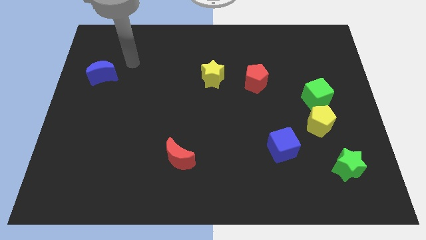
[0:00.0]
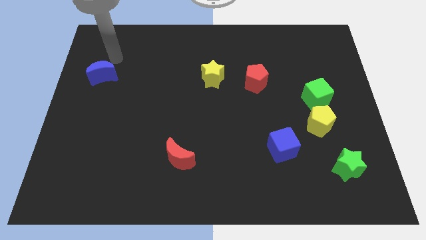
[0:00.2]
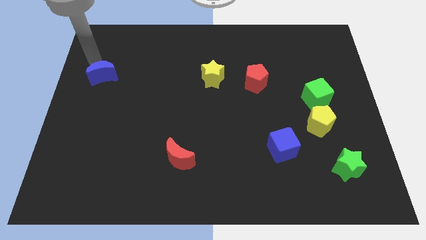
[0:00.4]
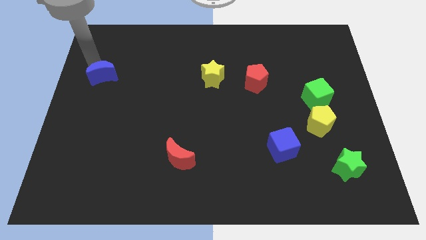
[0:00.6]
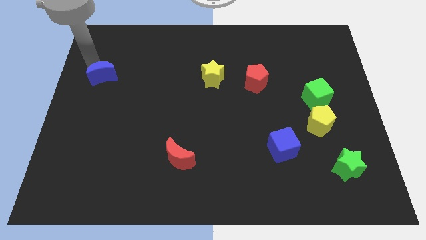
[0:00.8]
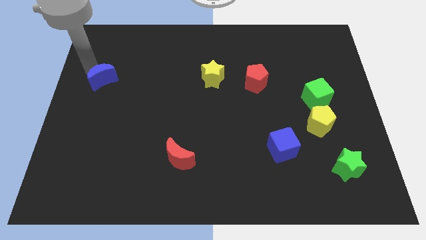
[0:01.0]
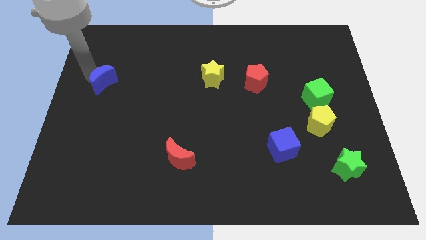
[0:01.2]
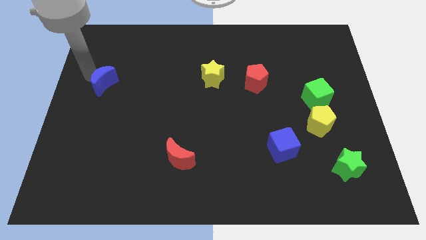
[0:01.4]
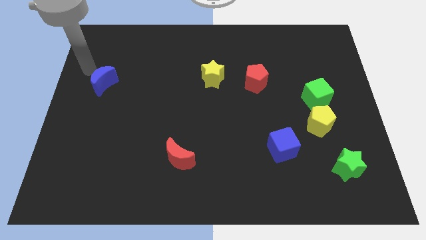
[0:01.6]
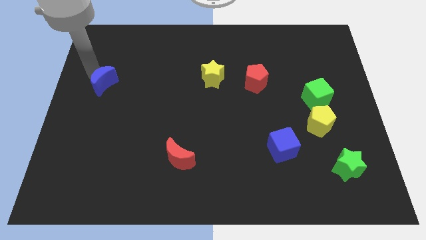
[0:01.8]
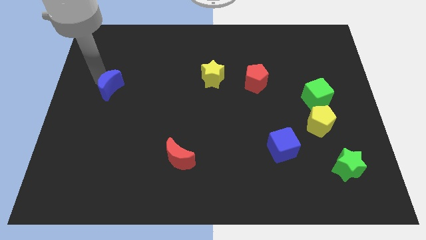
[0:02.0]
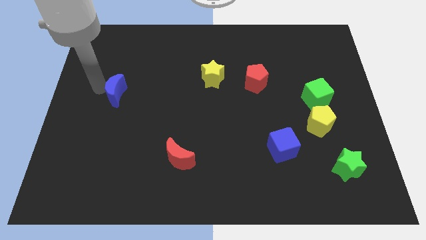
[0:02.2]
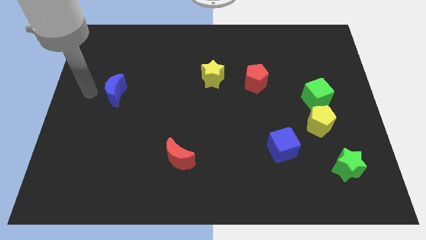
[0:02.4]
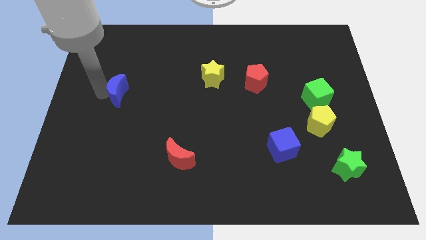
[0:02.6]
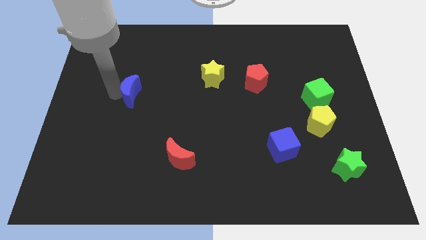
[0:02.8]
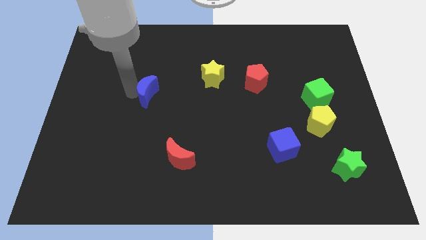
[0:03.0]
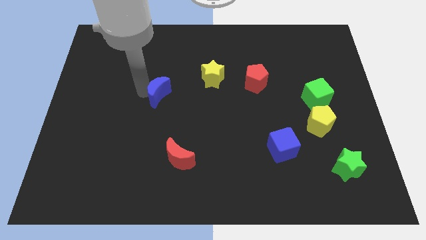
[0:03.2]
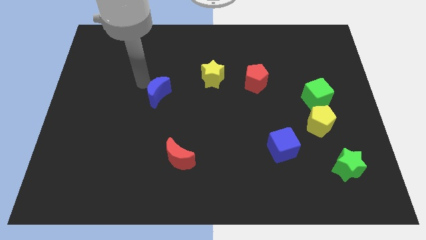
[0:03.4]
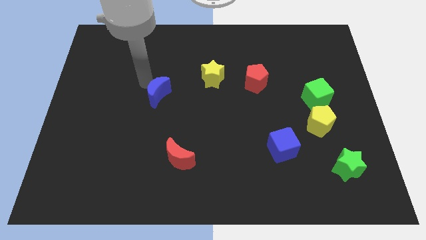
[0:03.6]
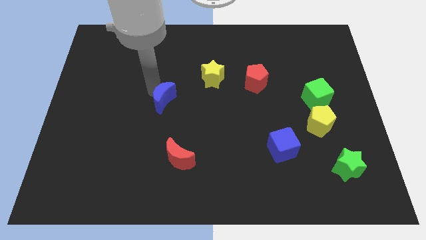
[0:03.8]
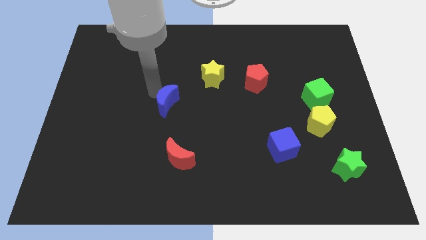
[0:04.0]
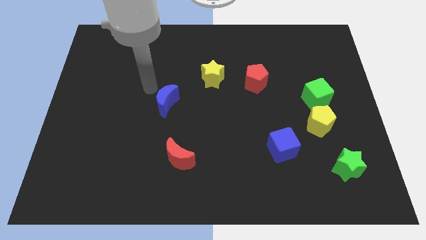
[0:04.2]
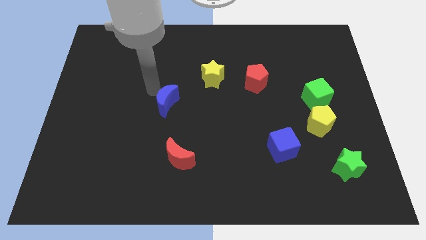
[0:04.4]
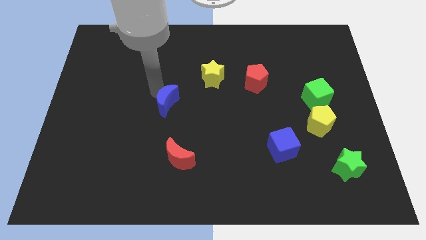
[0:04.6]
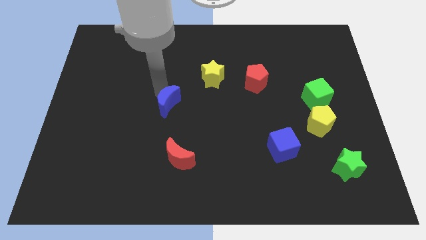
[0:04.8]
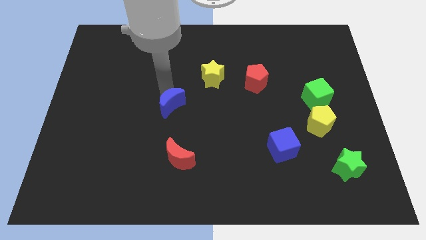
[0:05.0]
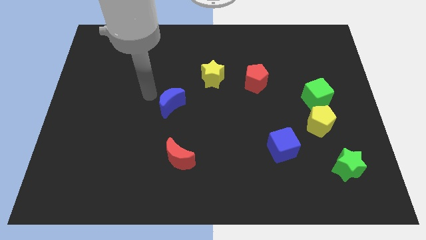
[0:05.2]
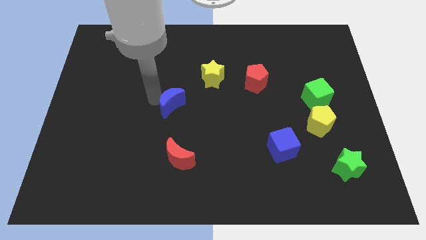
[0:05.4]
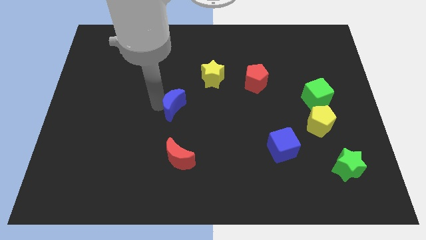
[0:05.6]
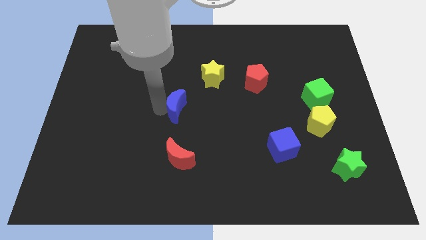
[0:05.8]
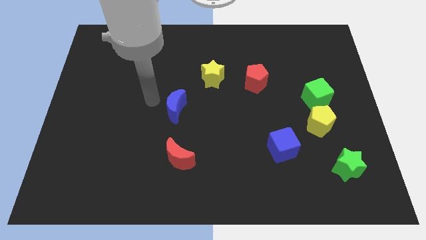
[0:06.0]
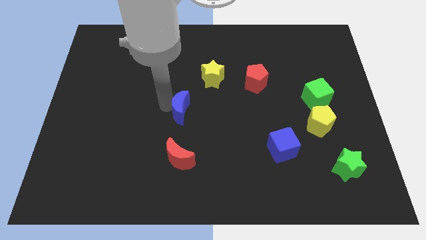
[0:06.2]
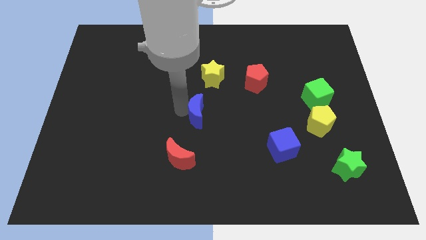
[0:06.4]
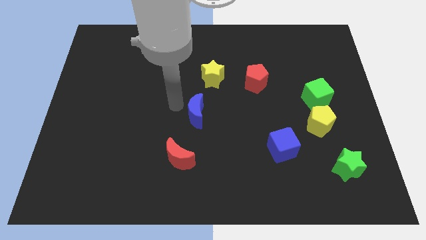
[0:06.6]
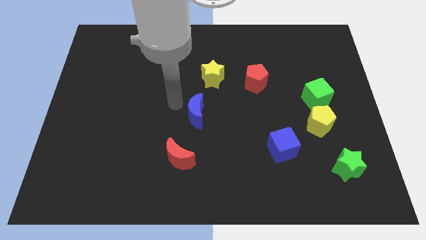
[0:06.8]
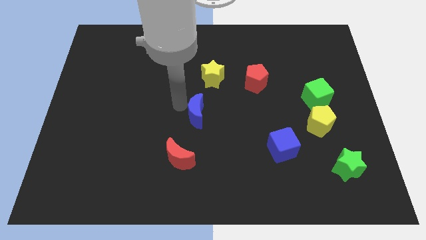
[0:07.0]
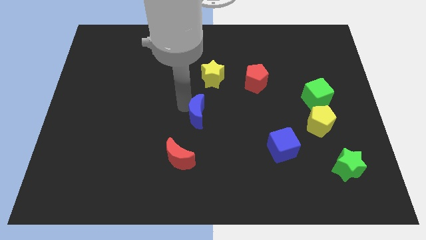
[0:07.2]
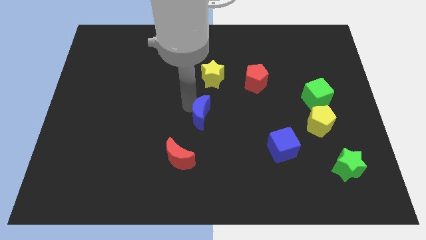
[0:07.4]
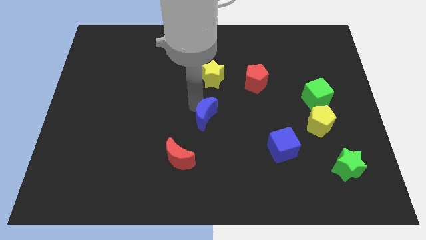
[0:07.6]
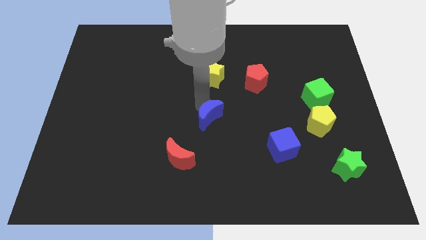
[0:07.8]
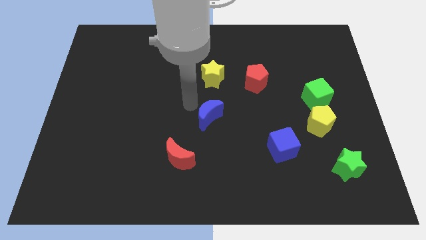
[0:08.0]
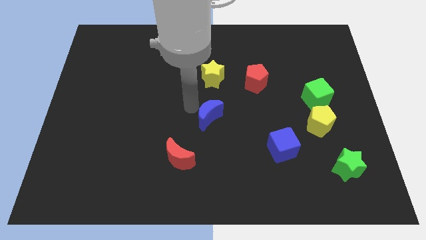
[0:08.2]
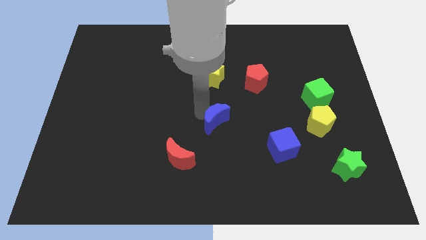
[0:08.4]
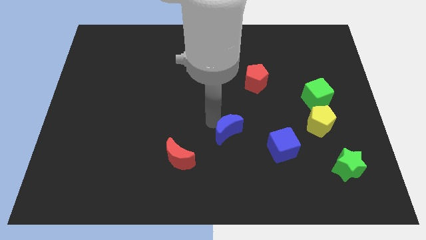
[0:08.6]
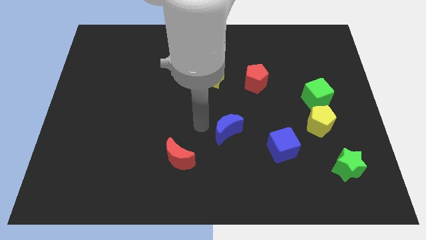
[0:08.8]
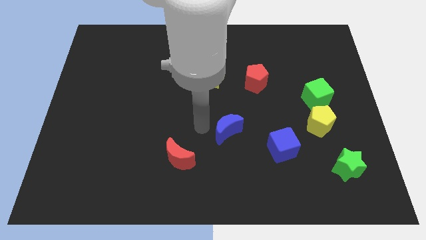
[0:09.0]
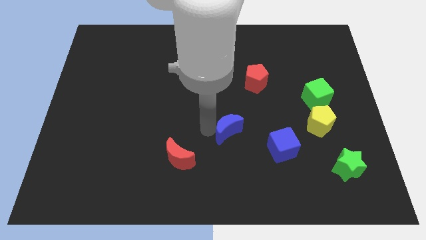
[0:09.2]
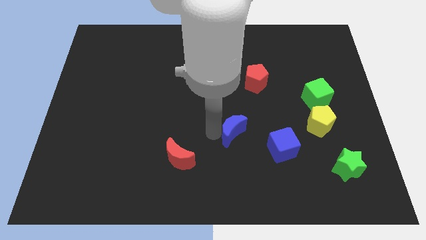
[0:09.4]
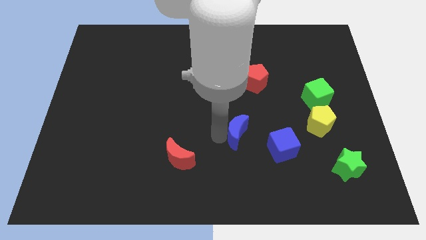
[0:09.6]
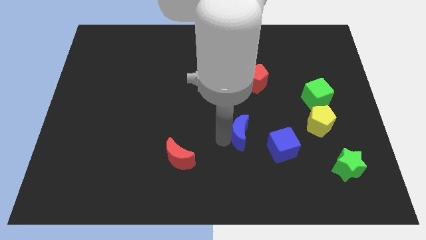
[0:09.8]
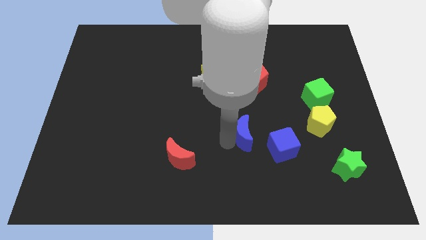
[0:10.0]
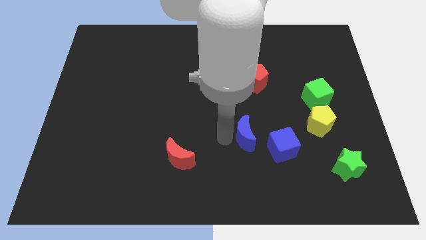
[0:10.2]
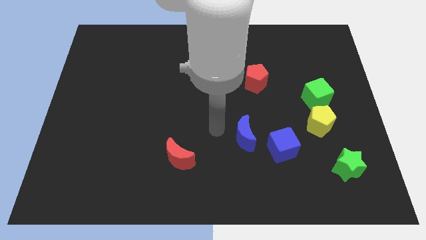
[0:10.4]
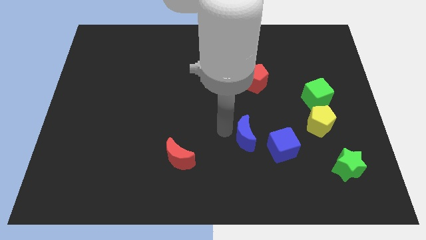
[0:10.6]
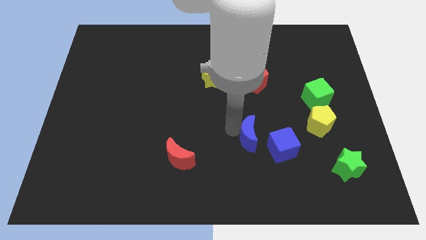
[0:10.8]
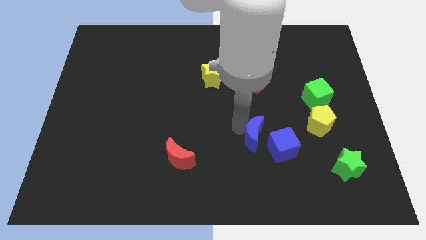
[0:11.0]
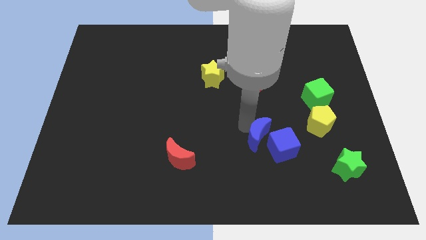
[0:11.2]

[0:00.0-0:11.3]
push the blue moon close to the blue cube

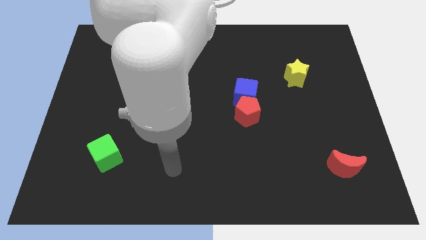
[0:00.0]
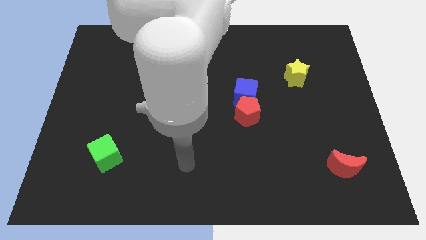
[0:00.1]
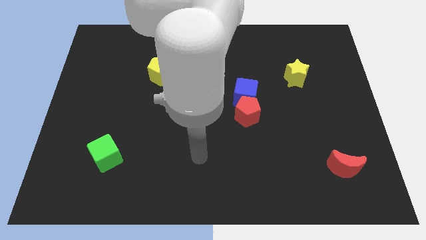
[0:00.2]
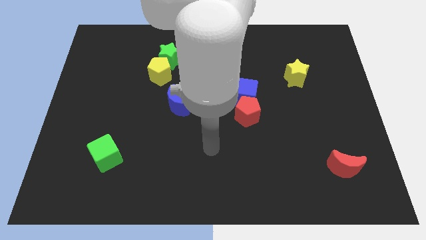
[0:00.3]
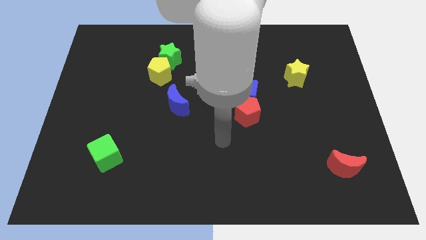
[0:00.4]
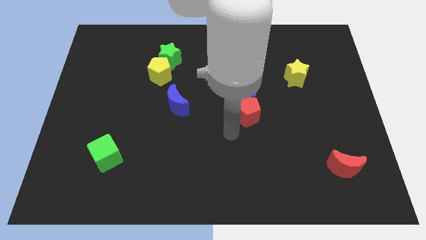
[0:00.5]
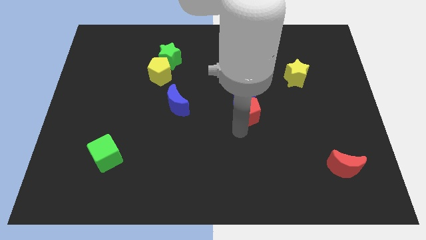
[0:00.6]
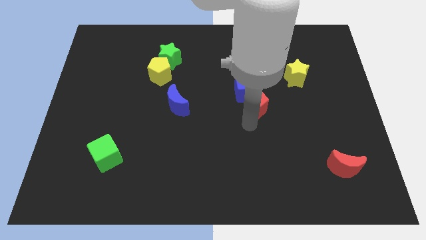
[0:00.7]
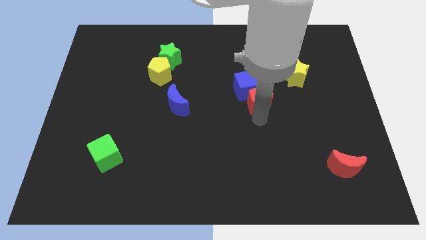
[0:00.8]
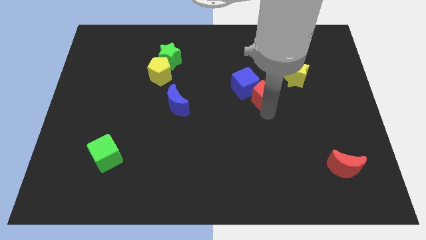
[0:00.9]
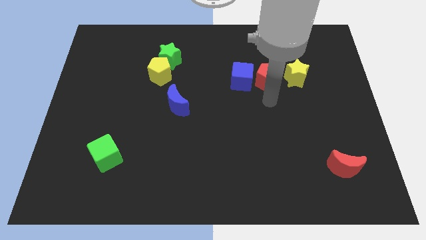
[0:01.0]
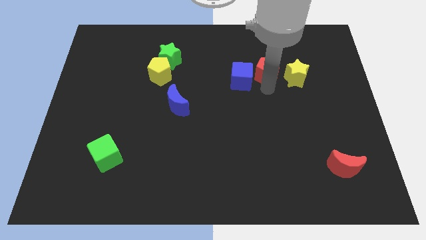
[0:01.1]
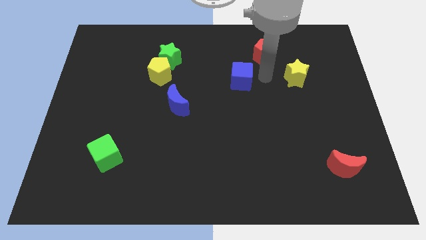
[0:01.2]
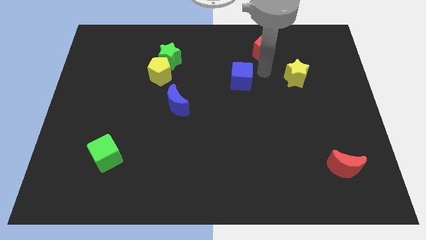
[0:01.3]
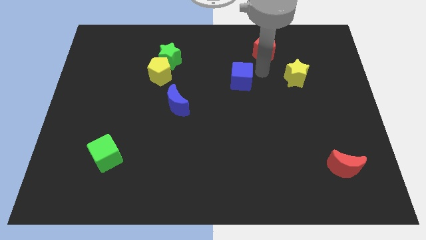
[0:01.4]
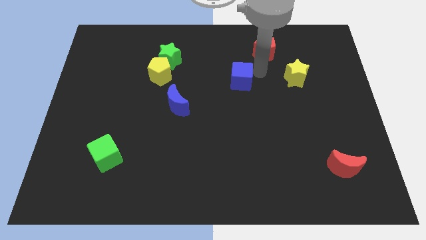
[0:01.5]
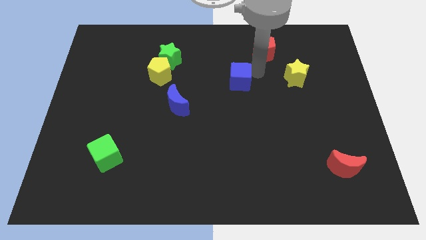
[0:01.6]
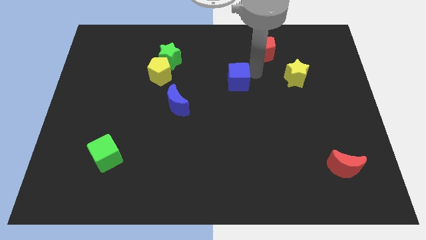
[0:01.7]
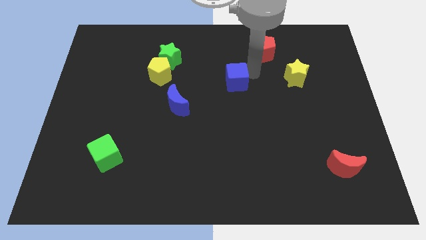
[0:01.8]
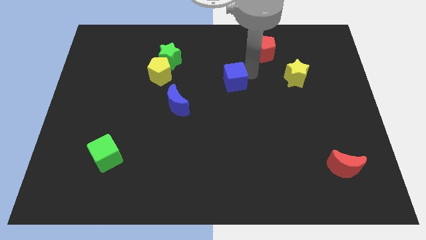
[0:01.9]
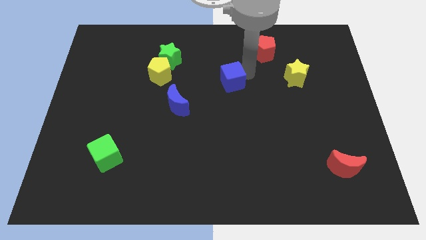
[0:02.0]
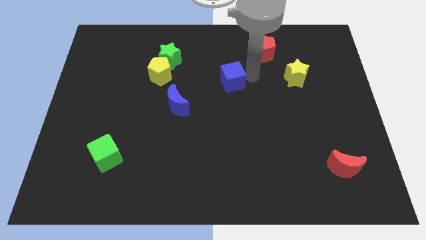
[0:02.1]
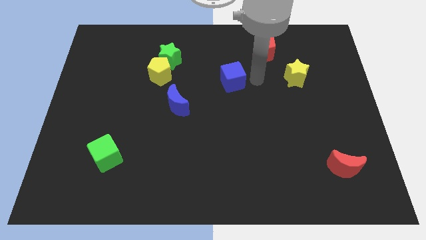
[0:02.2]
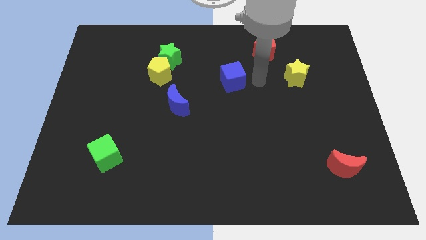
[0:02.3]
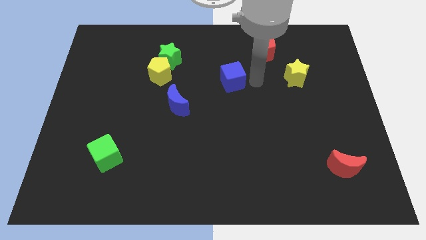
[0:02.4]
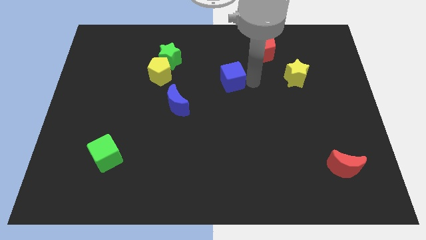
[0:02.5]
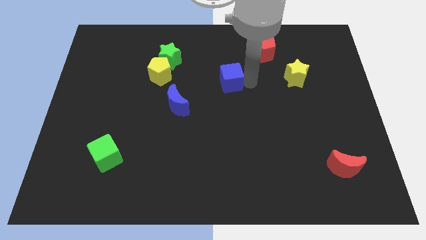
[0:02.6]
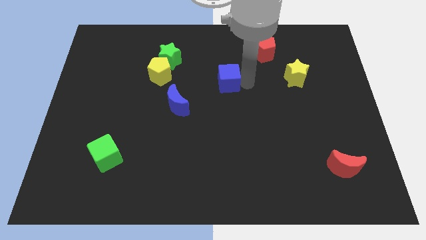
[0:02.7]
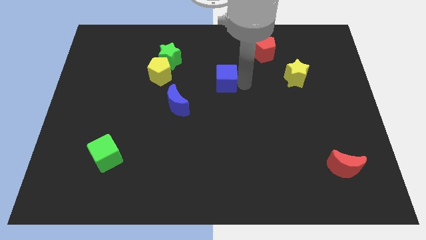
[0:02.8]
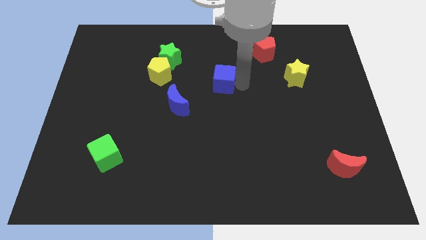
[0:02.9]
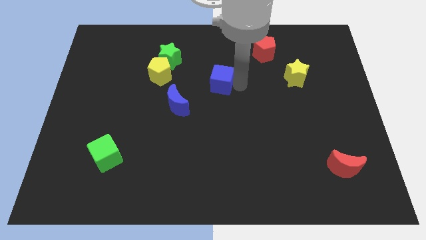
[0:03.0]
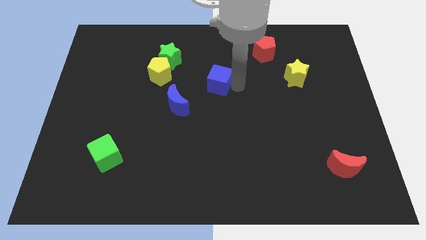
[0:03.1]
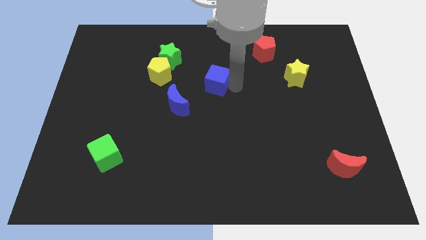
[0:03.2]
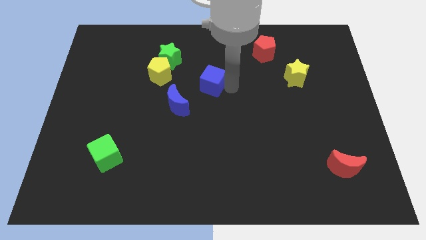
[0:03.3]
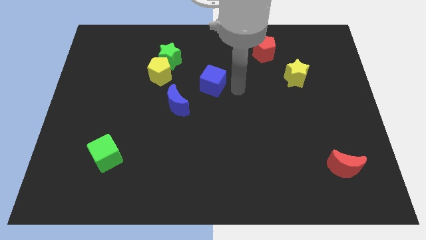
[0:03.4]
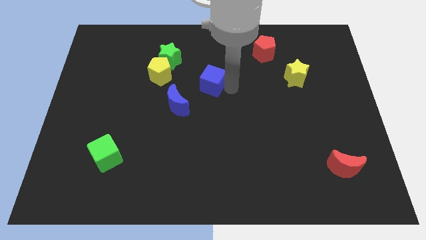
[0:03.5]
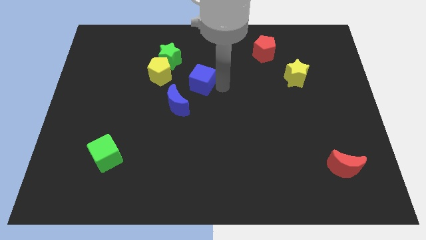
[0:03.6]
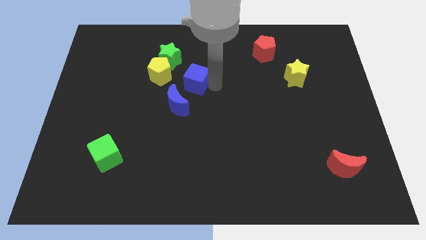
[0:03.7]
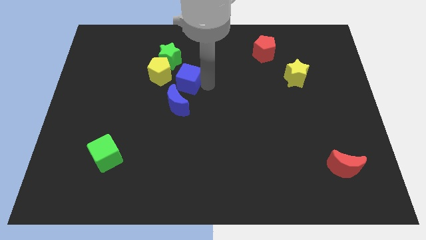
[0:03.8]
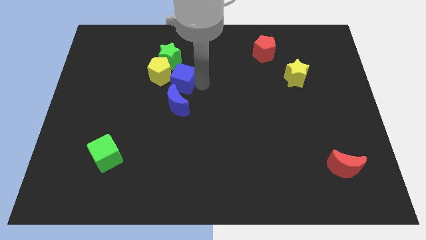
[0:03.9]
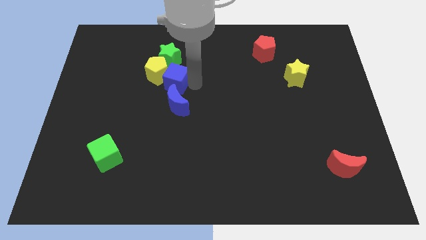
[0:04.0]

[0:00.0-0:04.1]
put the blue cube to the yellow pentagon
